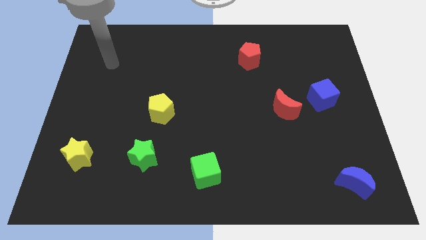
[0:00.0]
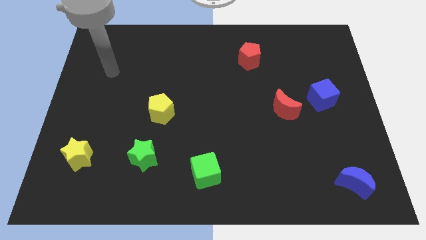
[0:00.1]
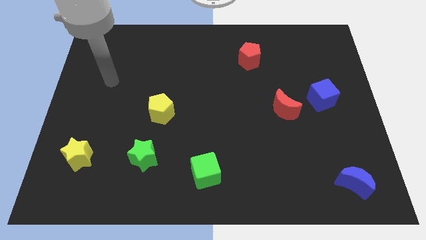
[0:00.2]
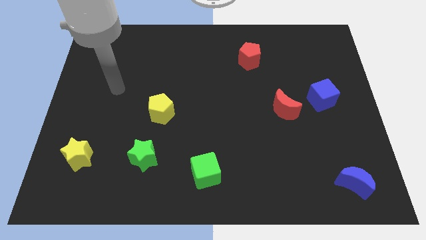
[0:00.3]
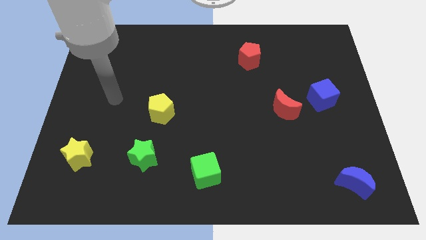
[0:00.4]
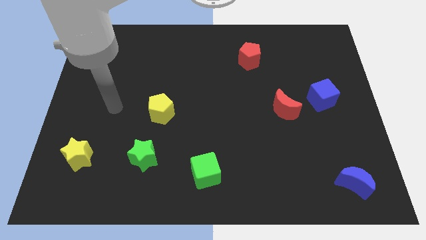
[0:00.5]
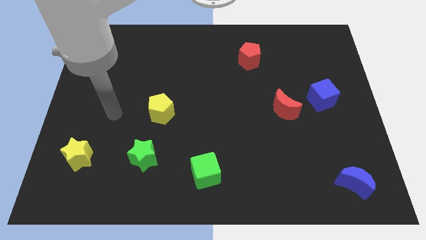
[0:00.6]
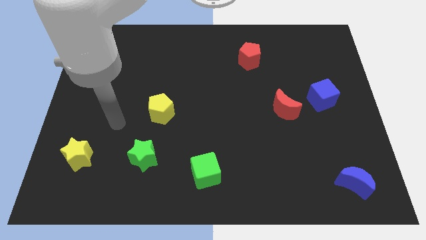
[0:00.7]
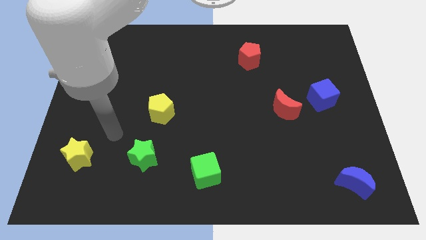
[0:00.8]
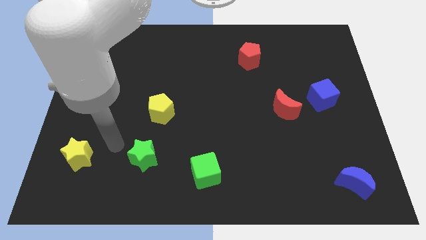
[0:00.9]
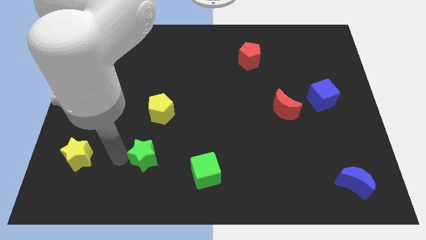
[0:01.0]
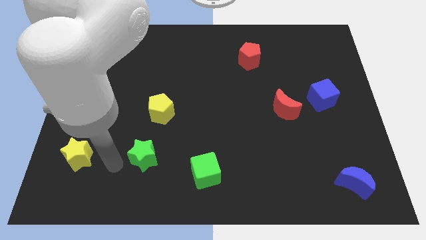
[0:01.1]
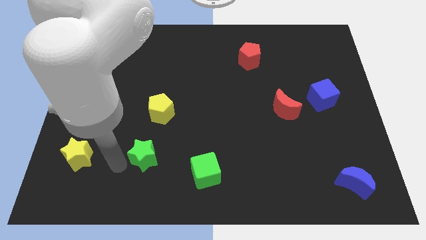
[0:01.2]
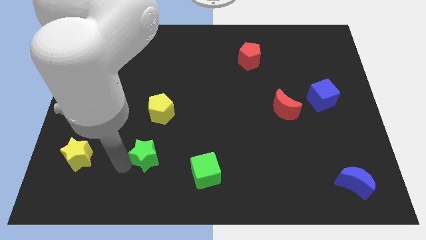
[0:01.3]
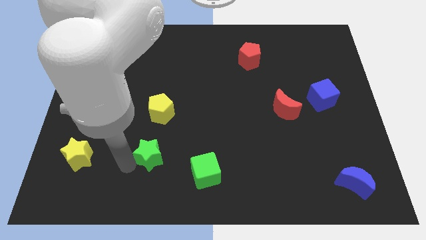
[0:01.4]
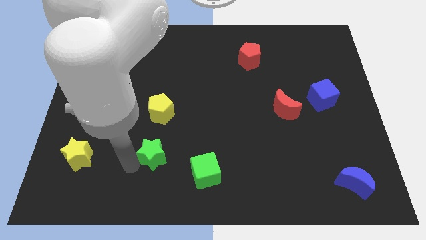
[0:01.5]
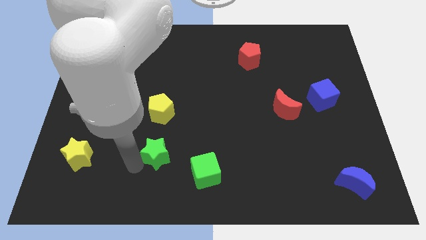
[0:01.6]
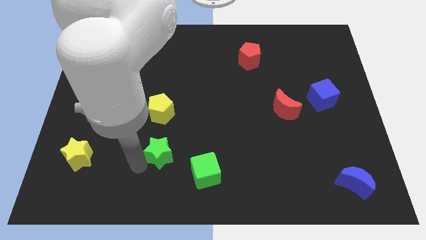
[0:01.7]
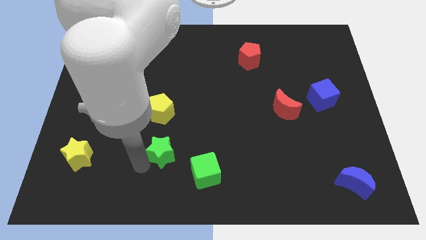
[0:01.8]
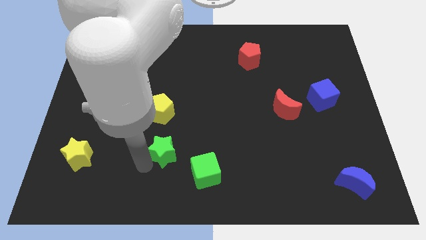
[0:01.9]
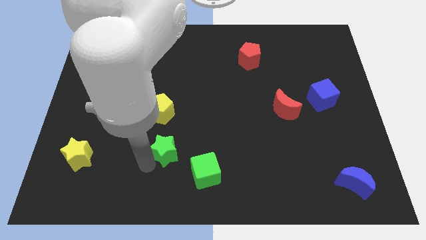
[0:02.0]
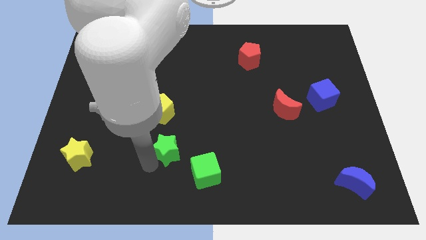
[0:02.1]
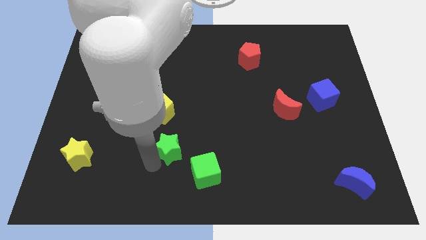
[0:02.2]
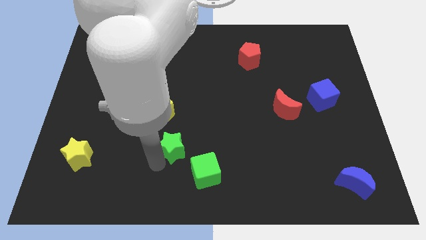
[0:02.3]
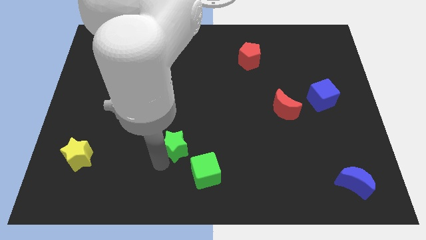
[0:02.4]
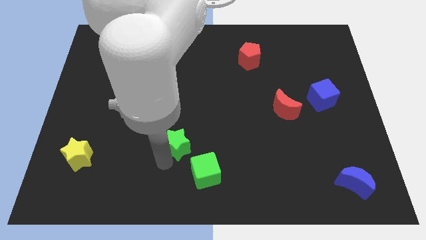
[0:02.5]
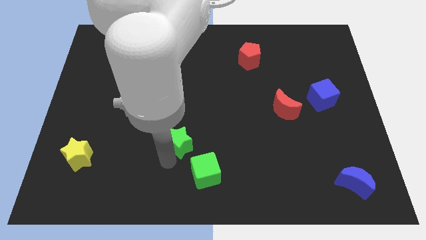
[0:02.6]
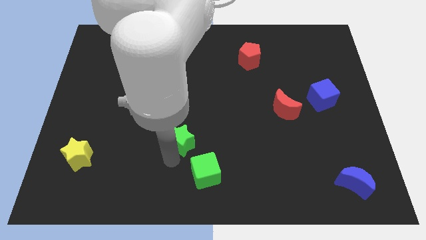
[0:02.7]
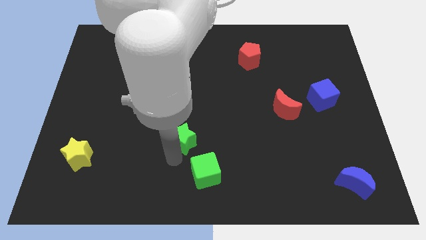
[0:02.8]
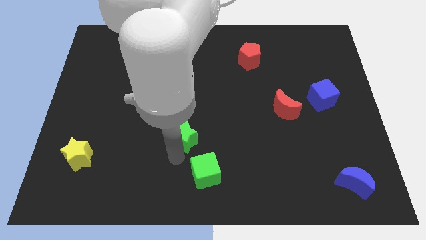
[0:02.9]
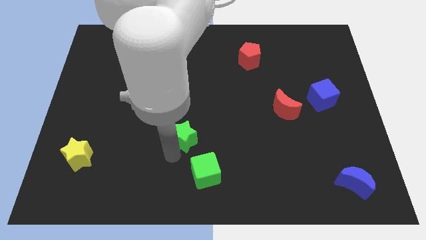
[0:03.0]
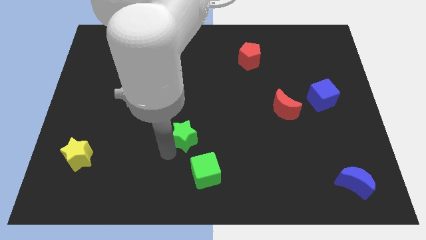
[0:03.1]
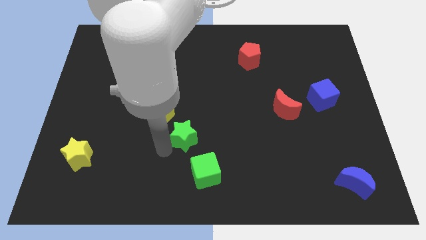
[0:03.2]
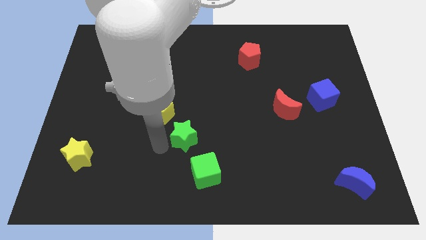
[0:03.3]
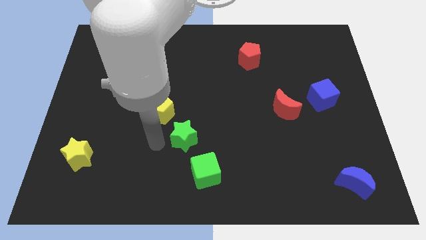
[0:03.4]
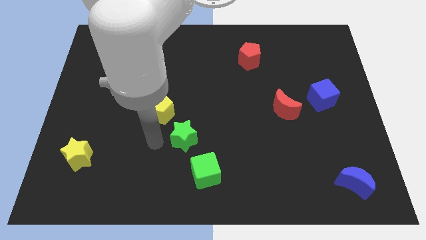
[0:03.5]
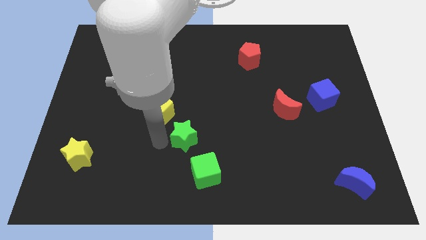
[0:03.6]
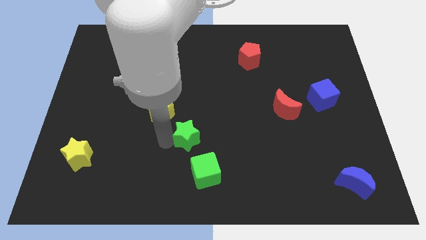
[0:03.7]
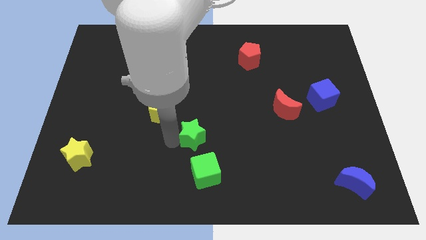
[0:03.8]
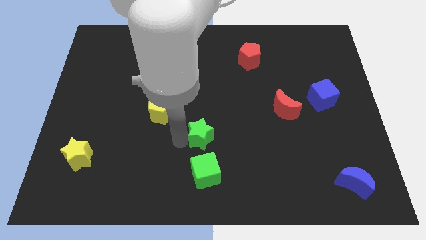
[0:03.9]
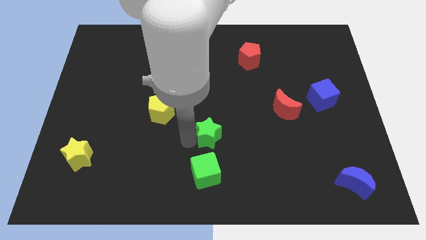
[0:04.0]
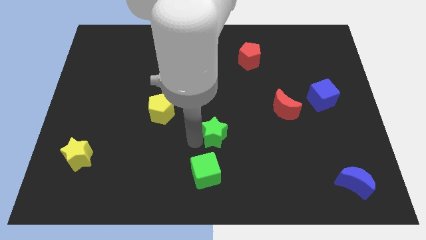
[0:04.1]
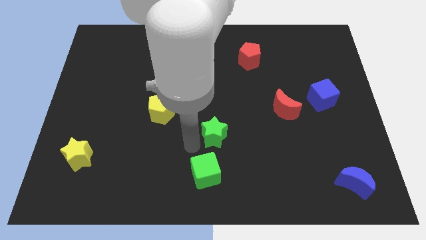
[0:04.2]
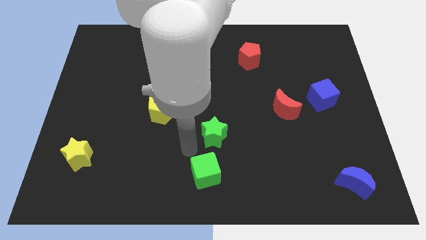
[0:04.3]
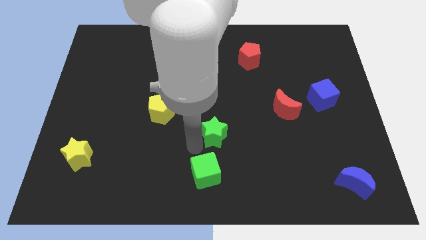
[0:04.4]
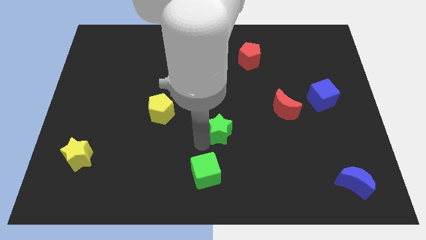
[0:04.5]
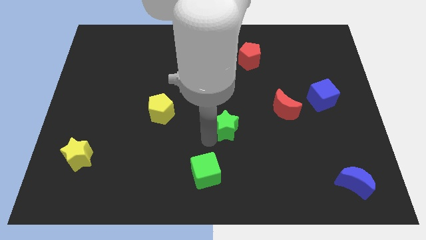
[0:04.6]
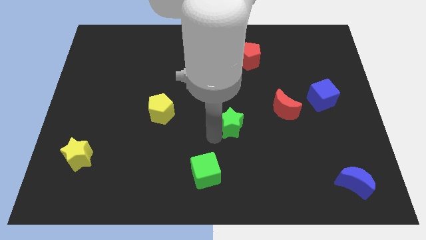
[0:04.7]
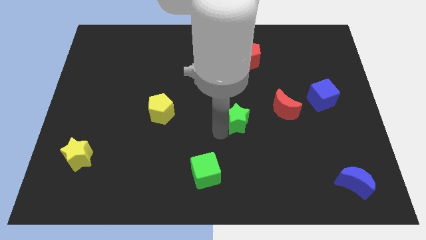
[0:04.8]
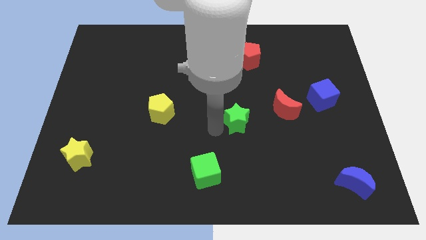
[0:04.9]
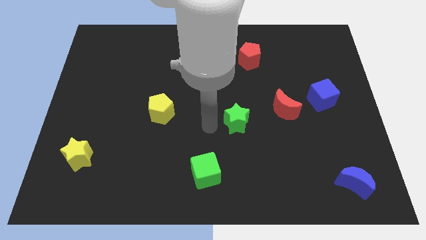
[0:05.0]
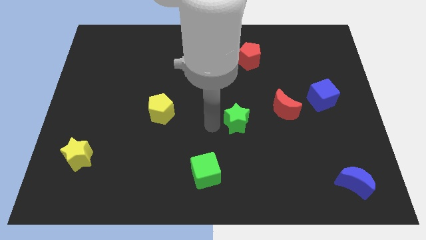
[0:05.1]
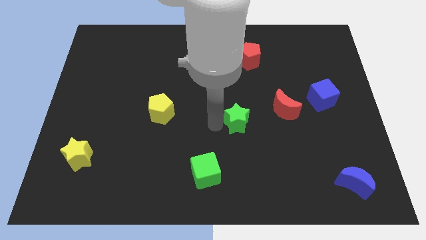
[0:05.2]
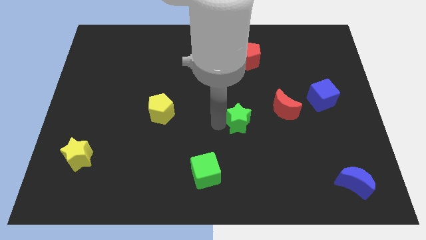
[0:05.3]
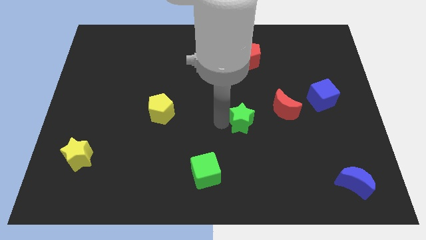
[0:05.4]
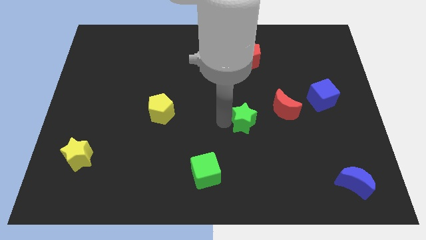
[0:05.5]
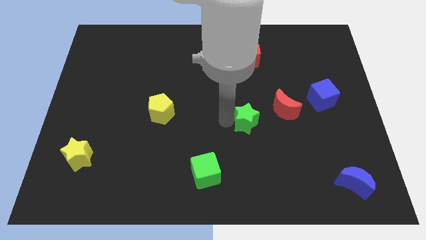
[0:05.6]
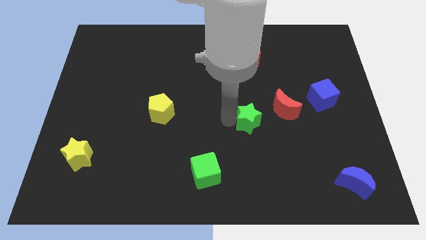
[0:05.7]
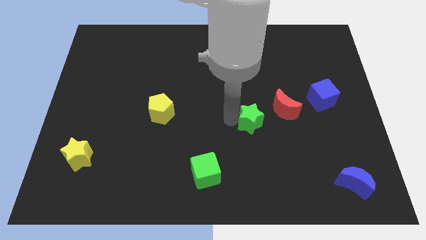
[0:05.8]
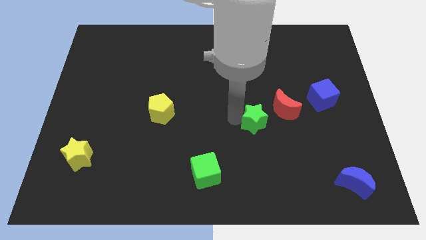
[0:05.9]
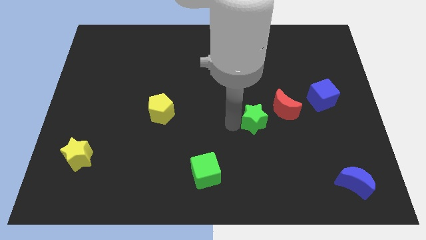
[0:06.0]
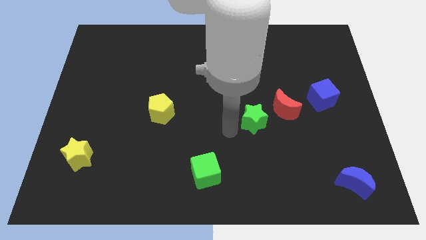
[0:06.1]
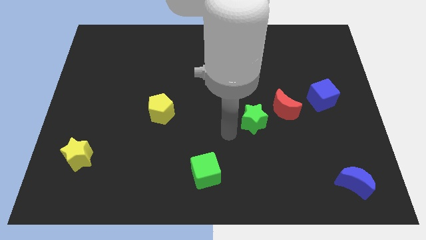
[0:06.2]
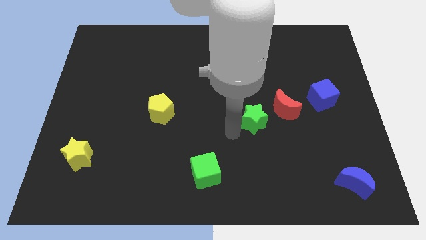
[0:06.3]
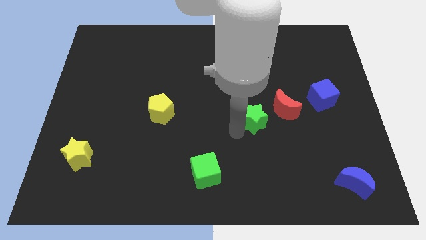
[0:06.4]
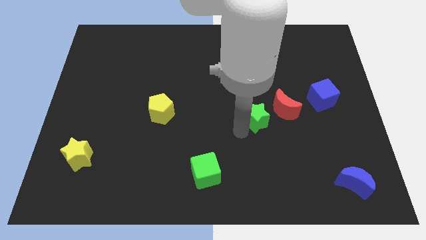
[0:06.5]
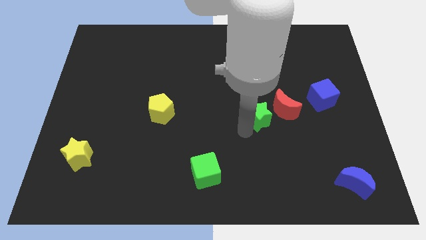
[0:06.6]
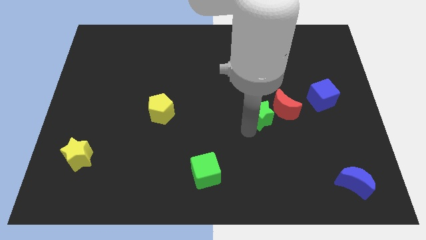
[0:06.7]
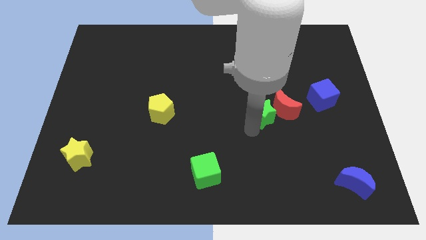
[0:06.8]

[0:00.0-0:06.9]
slide the green star to the red moon

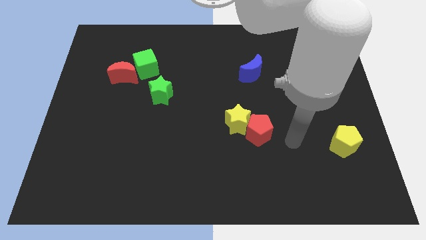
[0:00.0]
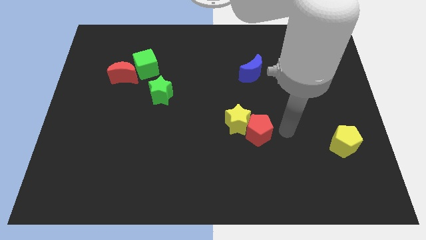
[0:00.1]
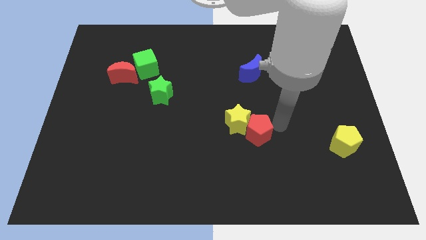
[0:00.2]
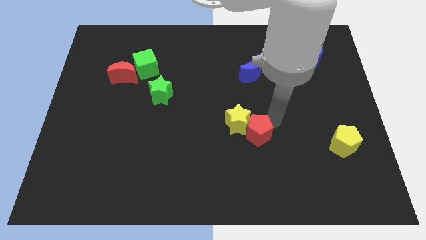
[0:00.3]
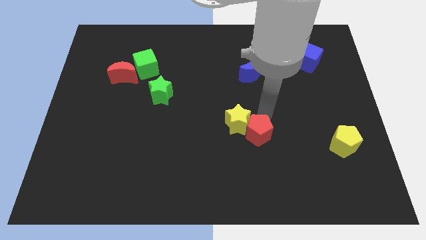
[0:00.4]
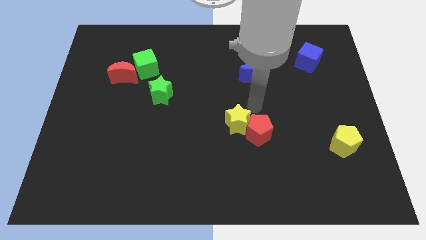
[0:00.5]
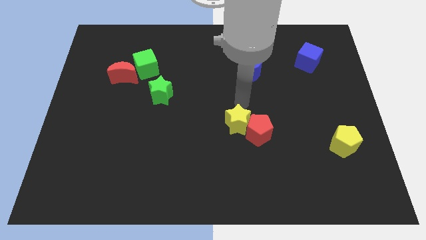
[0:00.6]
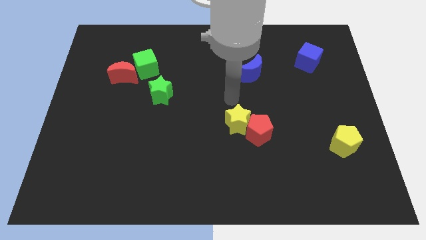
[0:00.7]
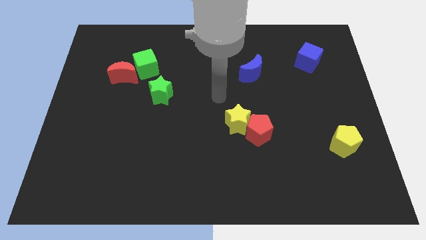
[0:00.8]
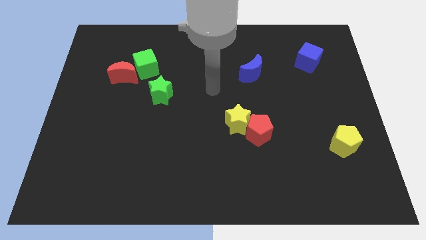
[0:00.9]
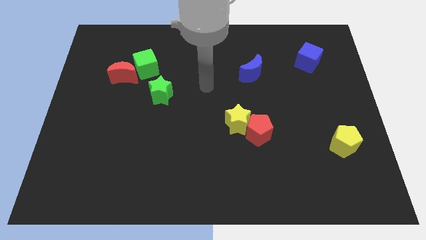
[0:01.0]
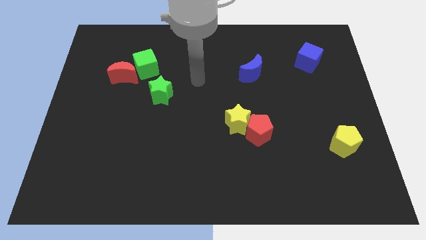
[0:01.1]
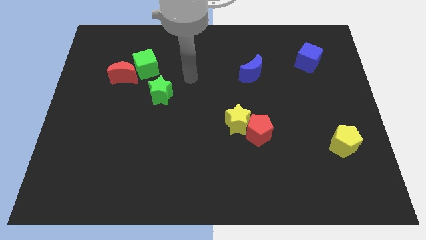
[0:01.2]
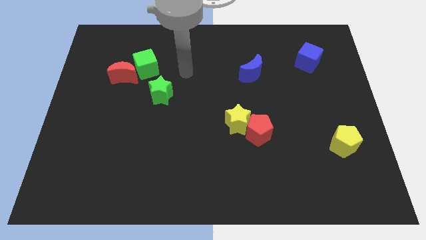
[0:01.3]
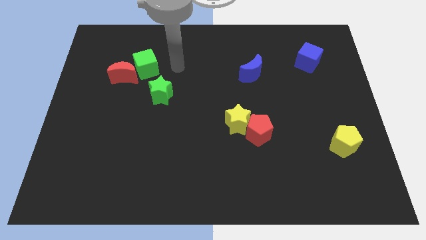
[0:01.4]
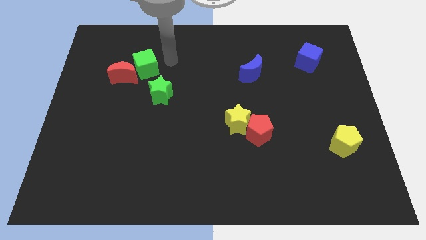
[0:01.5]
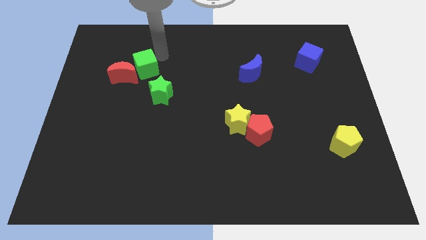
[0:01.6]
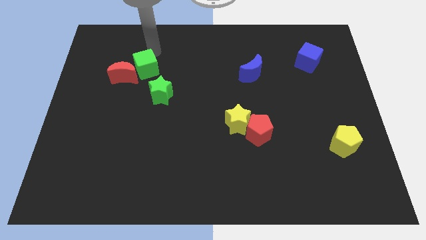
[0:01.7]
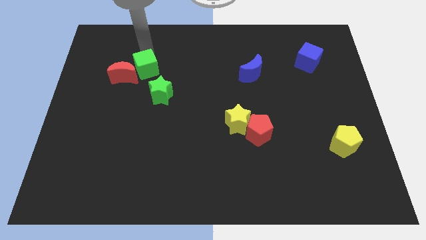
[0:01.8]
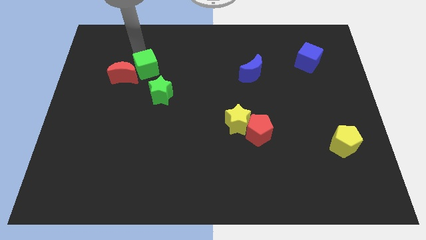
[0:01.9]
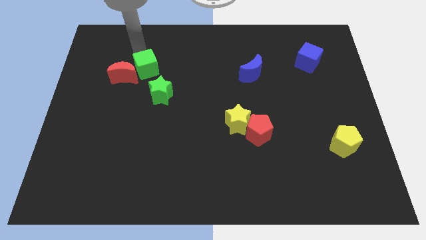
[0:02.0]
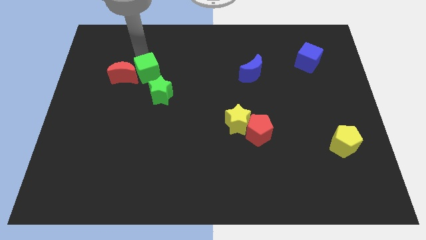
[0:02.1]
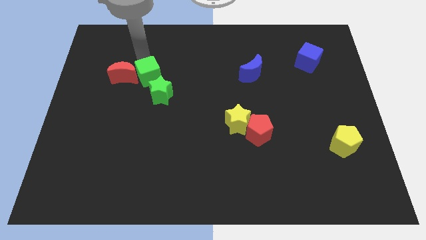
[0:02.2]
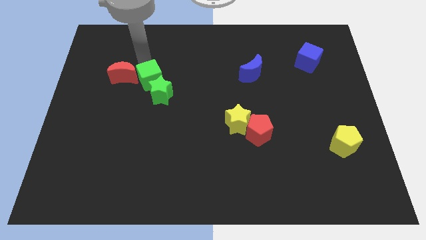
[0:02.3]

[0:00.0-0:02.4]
slide the green cube next to the green star
